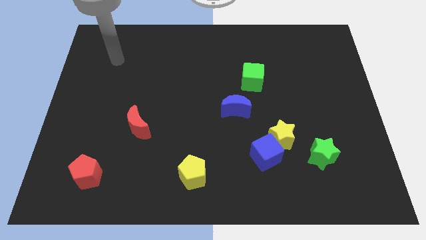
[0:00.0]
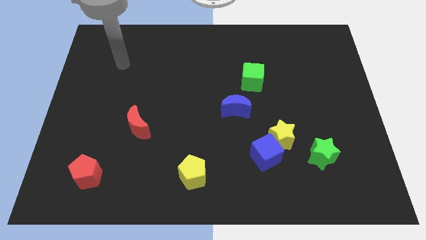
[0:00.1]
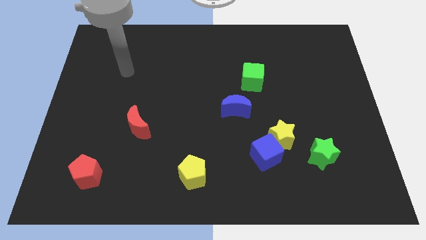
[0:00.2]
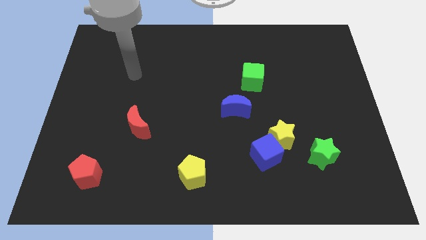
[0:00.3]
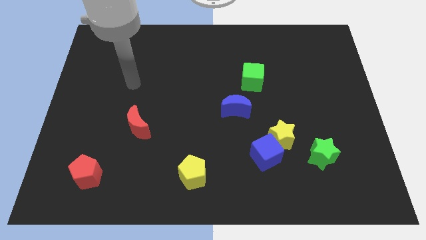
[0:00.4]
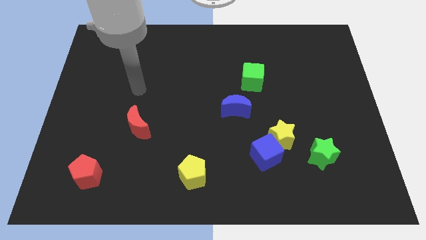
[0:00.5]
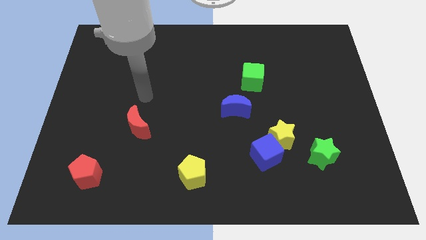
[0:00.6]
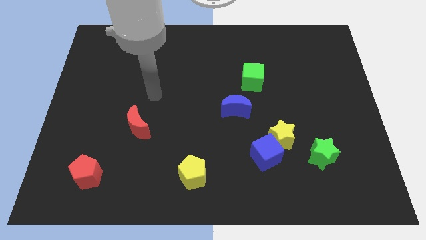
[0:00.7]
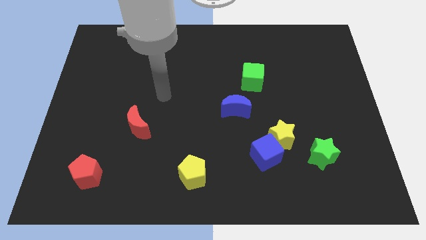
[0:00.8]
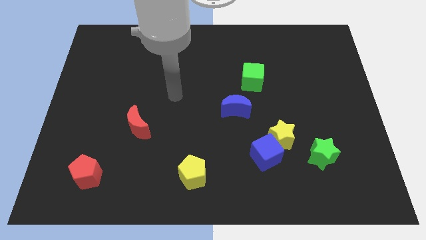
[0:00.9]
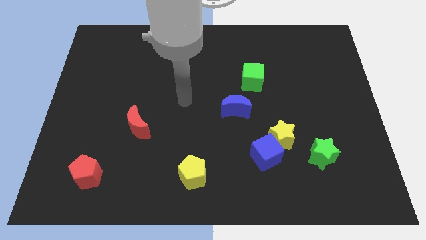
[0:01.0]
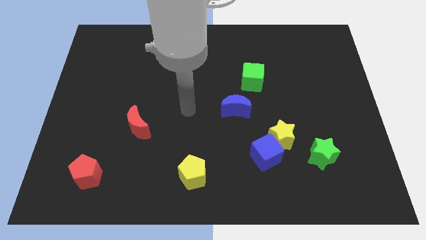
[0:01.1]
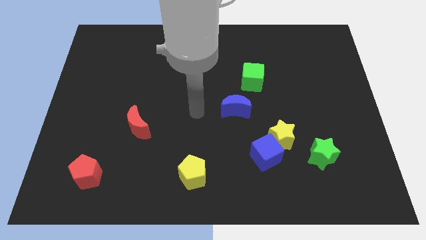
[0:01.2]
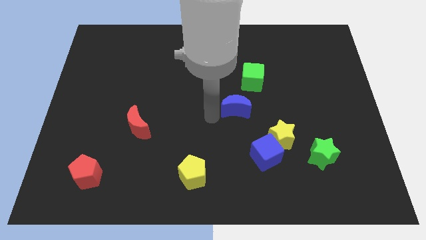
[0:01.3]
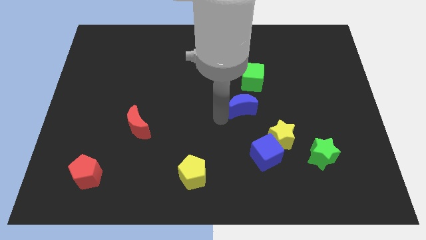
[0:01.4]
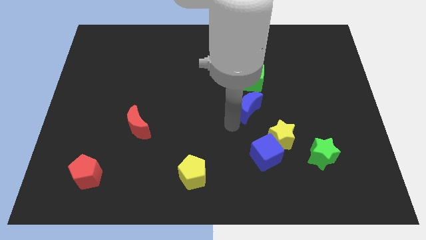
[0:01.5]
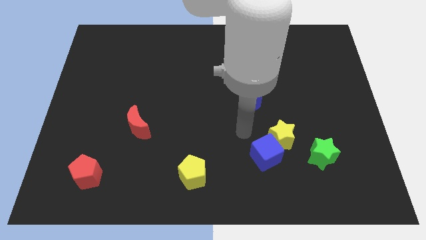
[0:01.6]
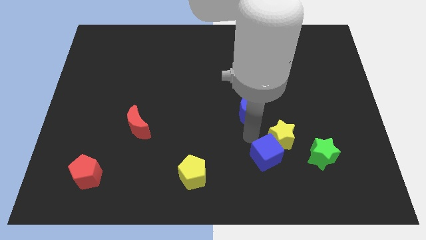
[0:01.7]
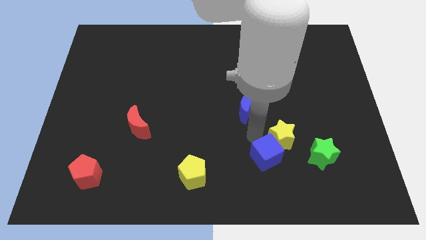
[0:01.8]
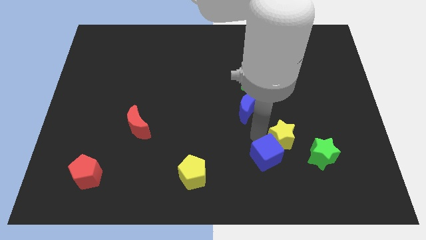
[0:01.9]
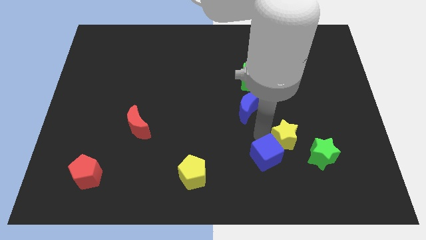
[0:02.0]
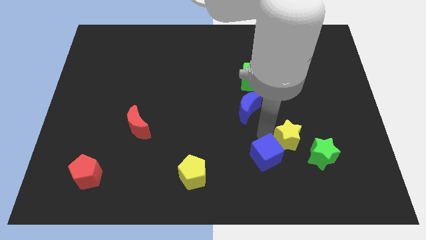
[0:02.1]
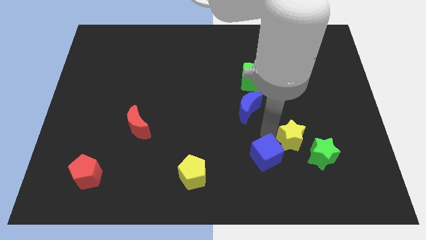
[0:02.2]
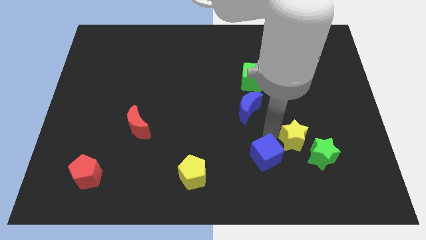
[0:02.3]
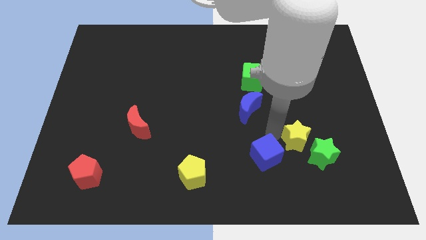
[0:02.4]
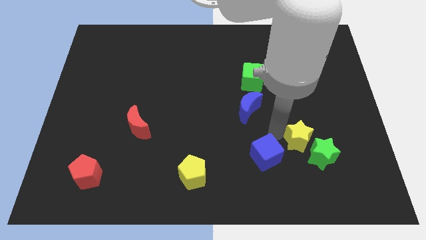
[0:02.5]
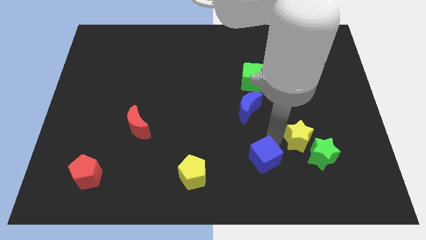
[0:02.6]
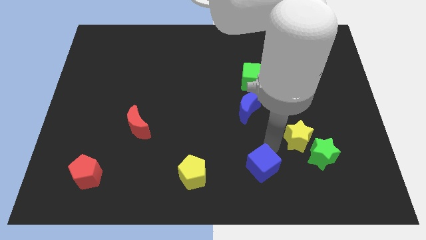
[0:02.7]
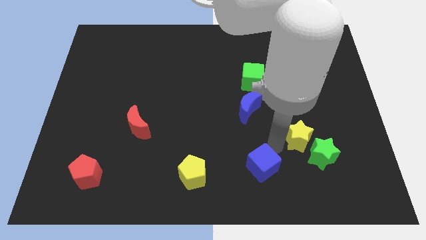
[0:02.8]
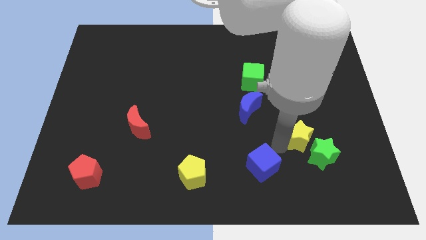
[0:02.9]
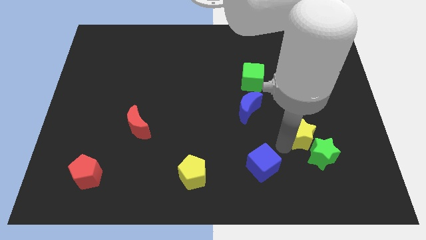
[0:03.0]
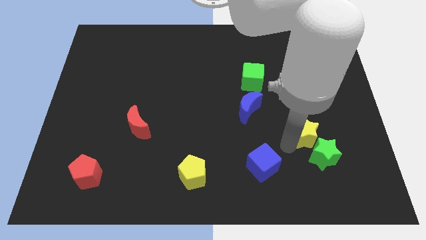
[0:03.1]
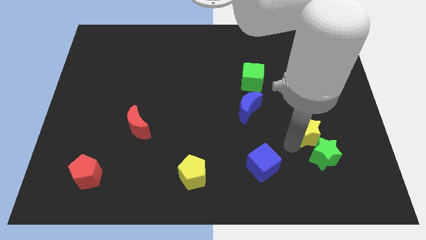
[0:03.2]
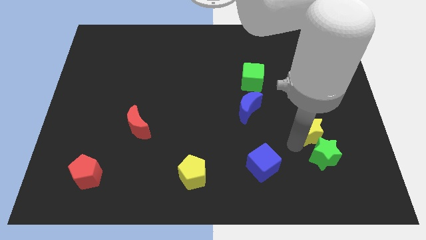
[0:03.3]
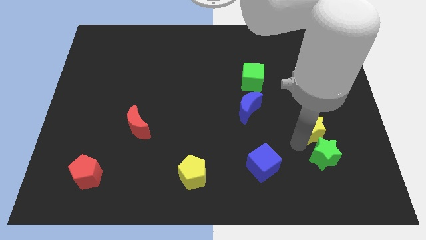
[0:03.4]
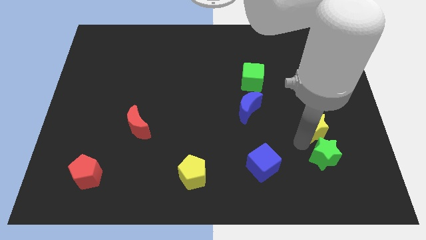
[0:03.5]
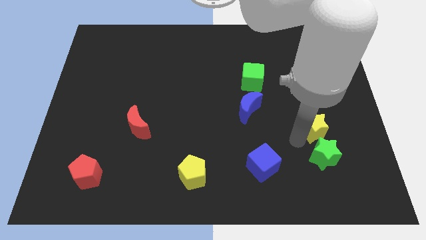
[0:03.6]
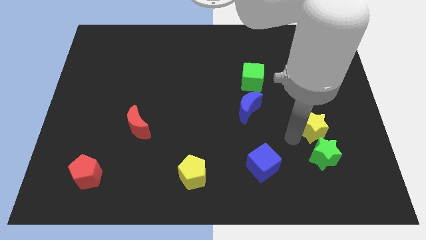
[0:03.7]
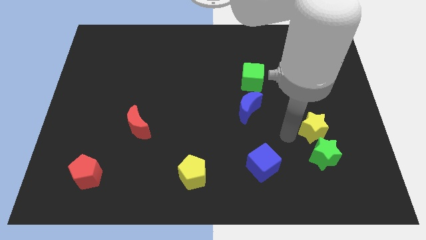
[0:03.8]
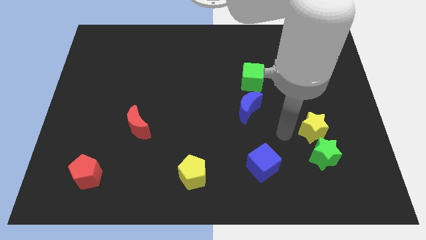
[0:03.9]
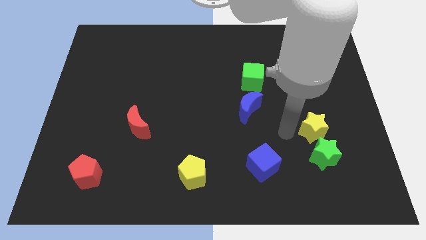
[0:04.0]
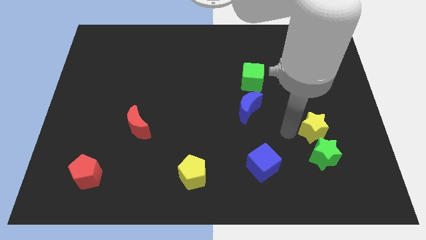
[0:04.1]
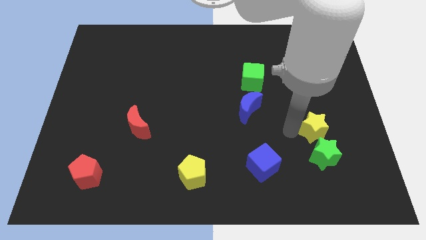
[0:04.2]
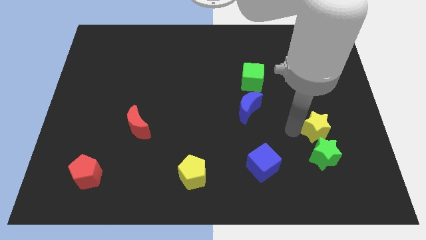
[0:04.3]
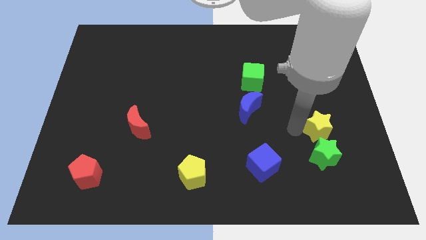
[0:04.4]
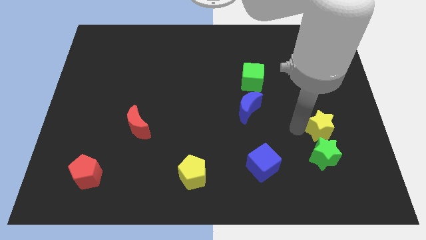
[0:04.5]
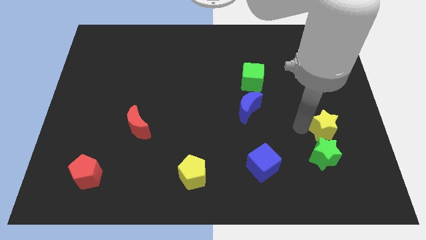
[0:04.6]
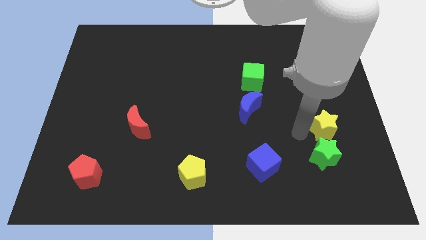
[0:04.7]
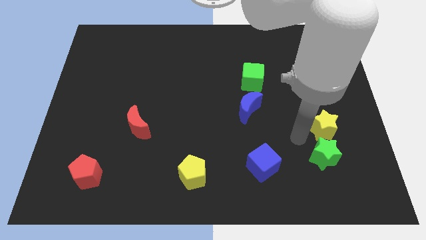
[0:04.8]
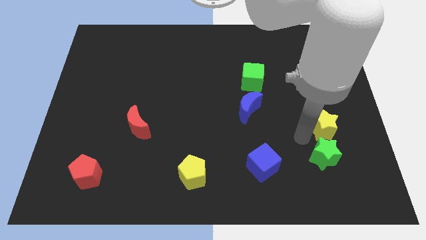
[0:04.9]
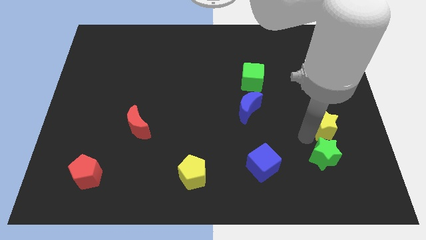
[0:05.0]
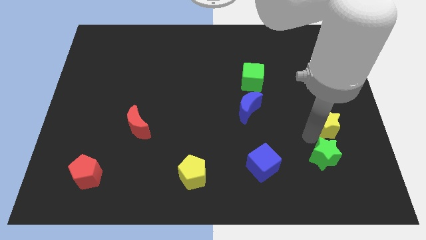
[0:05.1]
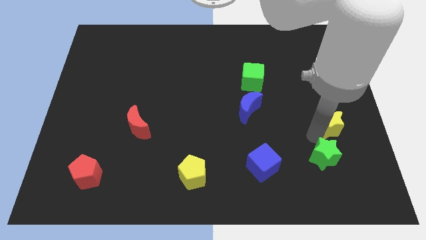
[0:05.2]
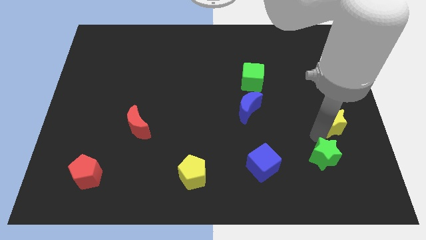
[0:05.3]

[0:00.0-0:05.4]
move the yellow star to the right side of the board

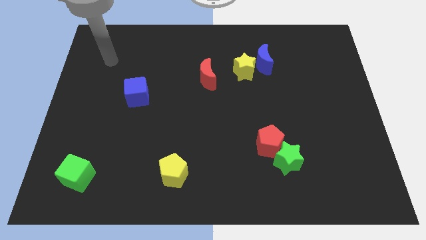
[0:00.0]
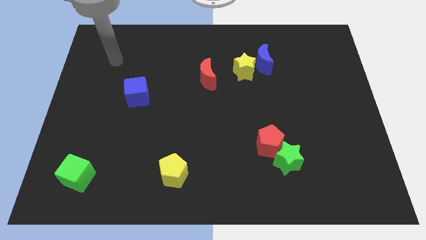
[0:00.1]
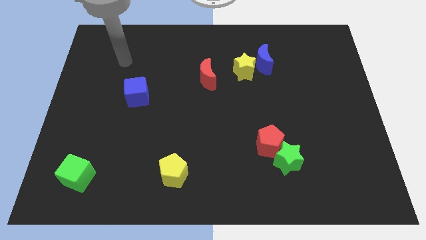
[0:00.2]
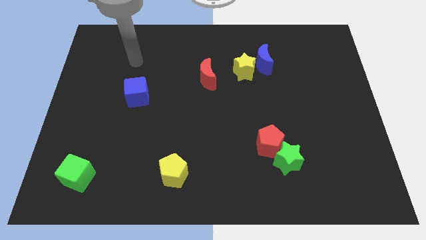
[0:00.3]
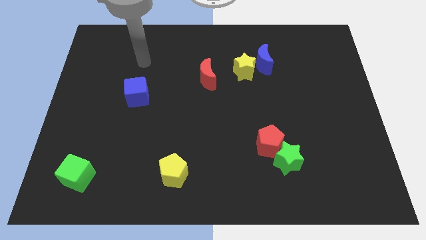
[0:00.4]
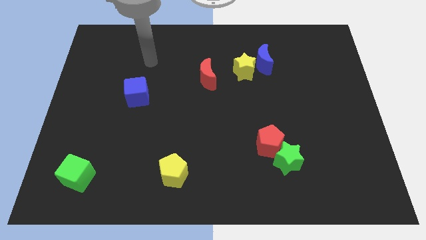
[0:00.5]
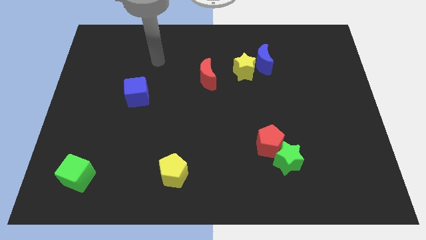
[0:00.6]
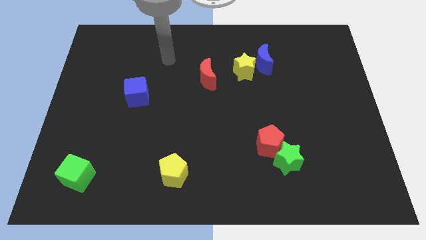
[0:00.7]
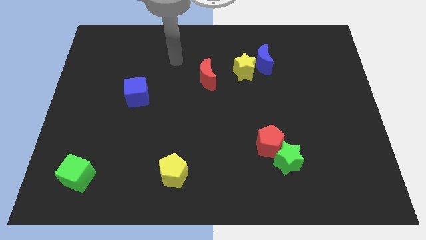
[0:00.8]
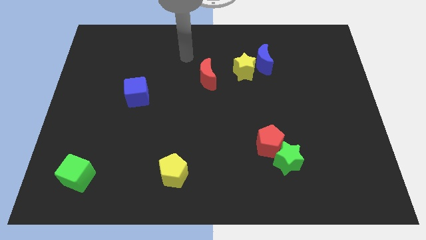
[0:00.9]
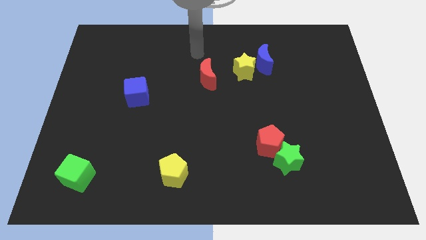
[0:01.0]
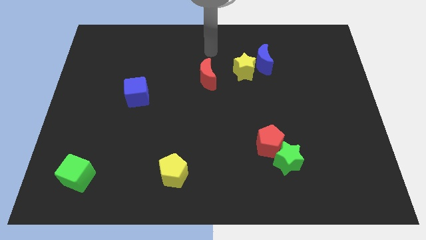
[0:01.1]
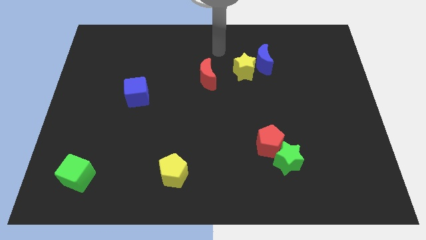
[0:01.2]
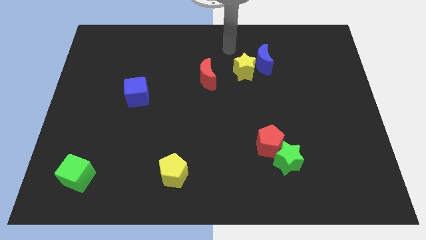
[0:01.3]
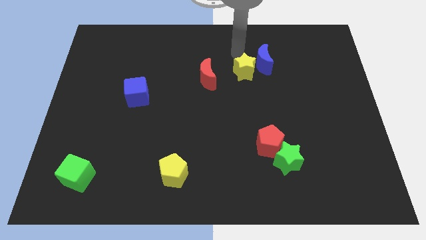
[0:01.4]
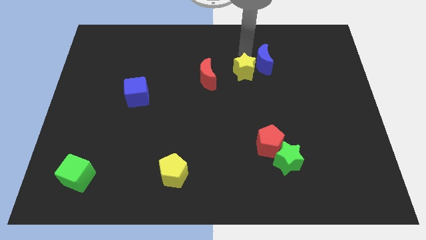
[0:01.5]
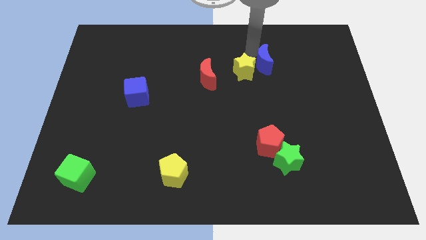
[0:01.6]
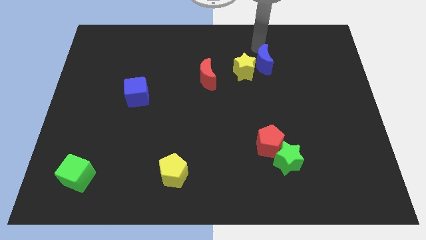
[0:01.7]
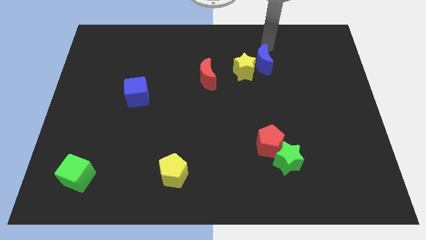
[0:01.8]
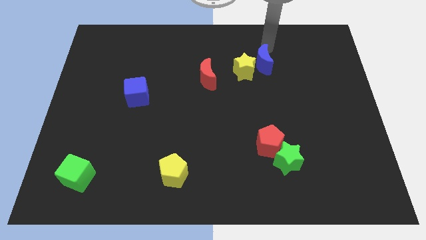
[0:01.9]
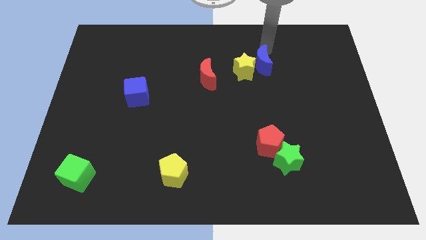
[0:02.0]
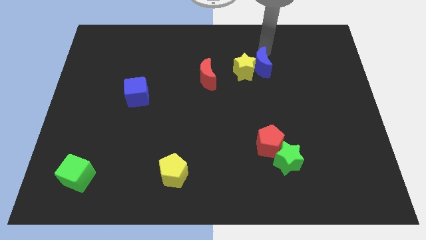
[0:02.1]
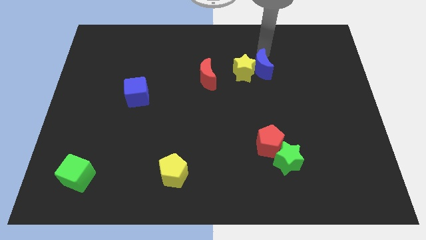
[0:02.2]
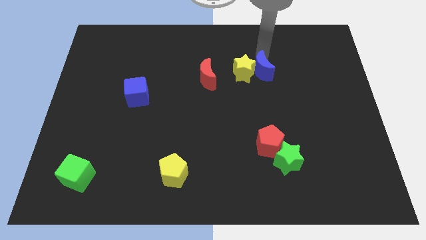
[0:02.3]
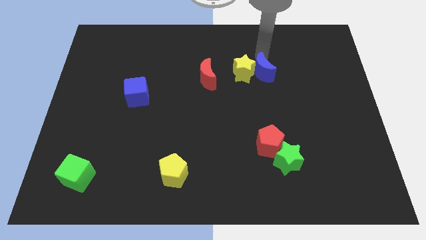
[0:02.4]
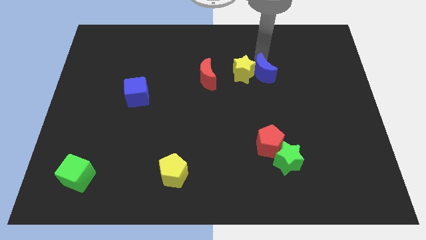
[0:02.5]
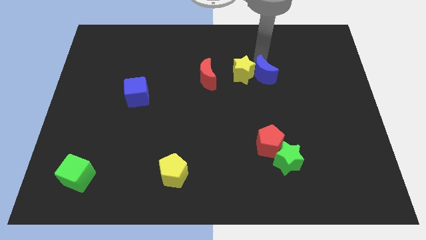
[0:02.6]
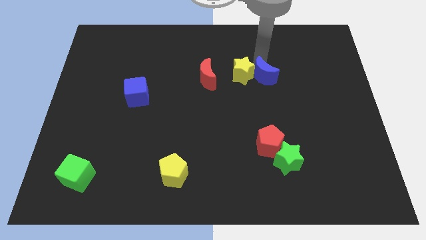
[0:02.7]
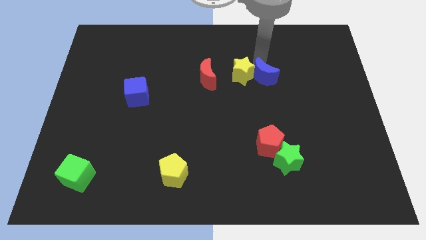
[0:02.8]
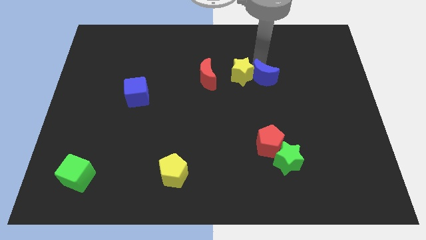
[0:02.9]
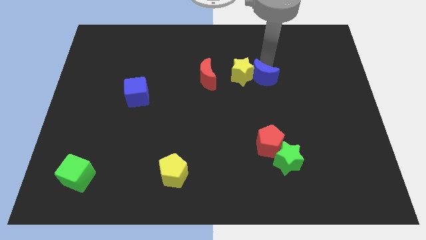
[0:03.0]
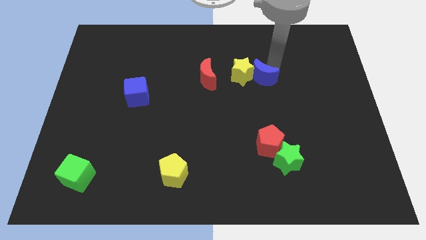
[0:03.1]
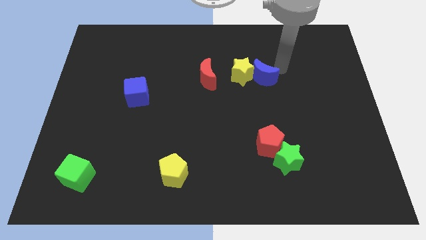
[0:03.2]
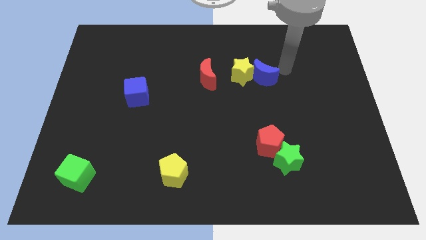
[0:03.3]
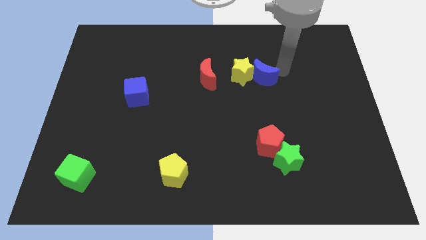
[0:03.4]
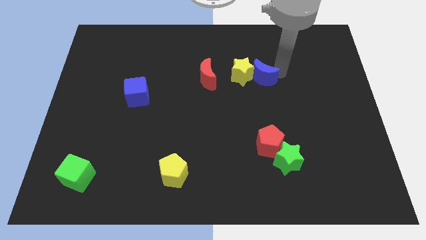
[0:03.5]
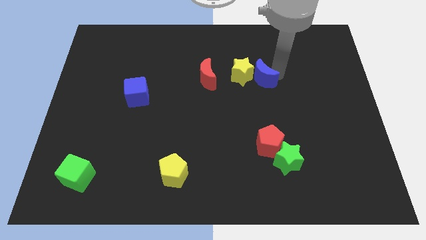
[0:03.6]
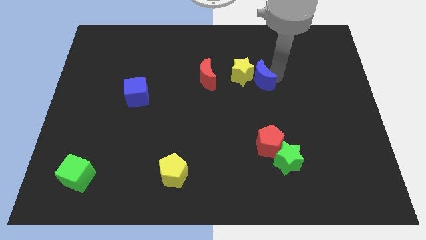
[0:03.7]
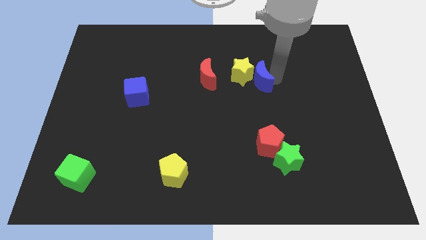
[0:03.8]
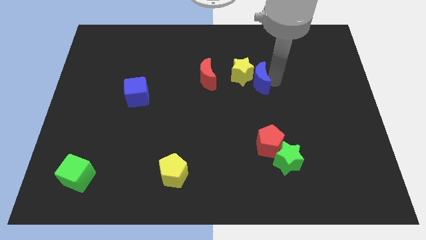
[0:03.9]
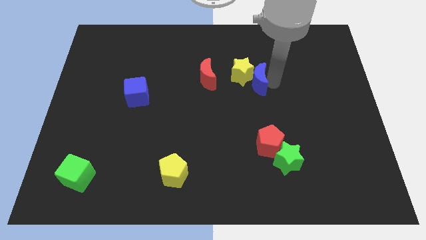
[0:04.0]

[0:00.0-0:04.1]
push the blue moon to the center of the board
